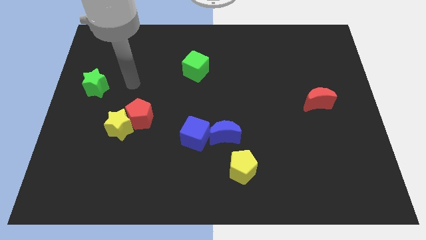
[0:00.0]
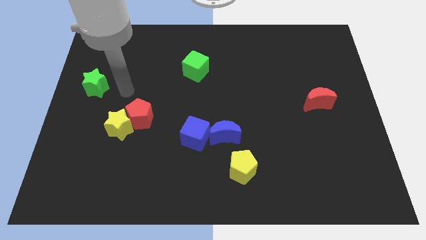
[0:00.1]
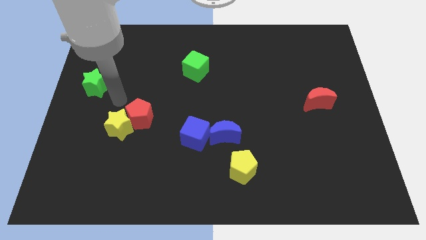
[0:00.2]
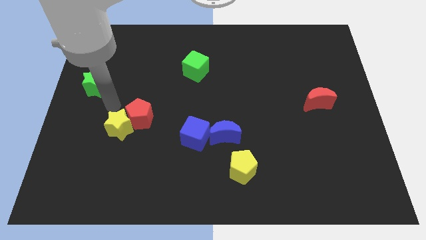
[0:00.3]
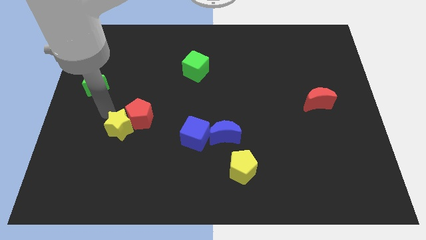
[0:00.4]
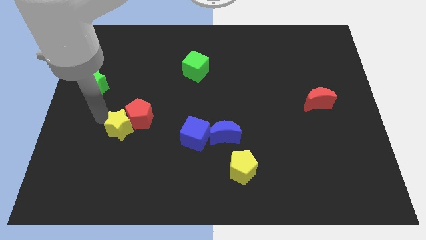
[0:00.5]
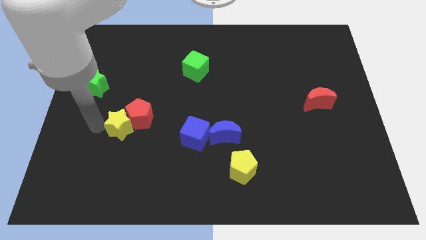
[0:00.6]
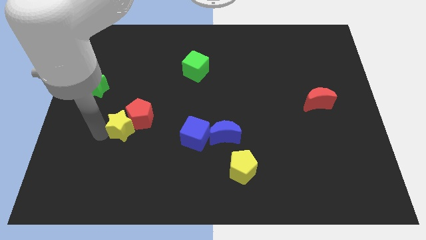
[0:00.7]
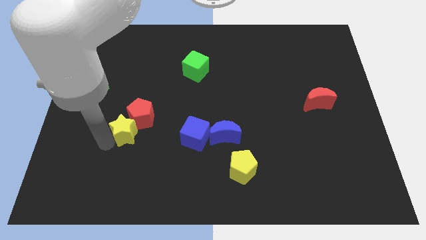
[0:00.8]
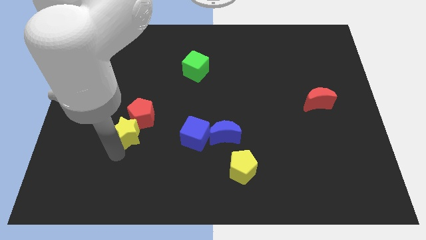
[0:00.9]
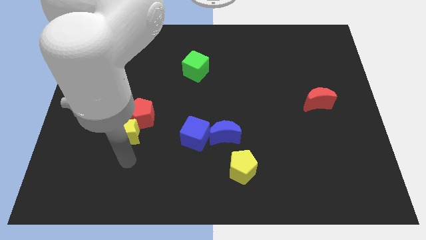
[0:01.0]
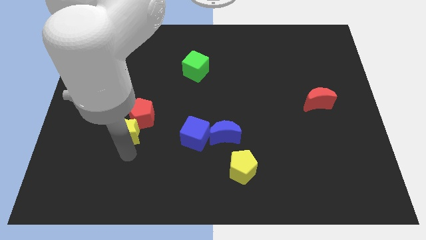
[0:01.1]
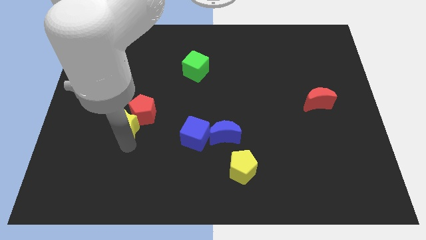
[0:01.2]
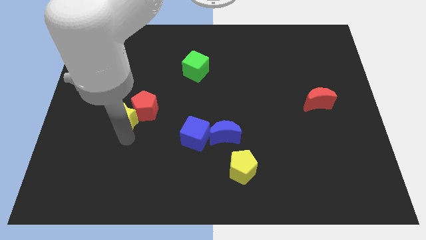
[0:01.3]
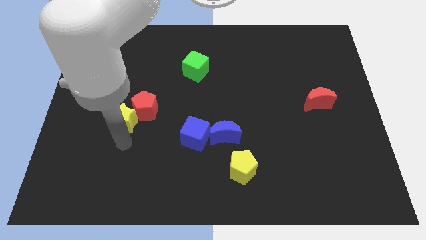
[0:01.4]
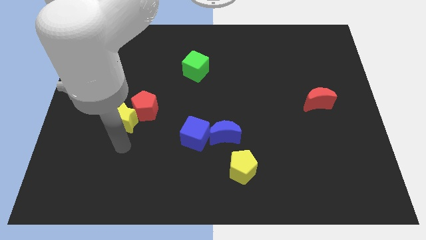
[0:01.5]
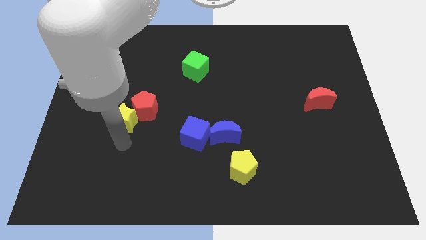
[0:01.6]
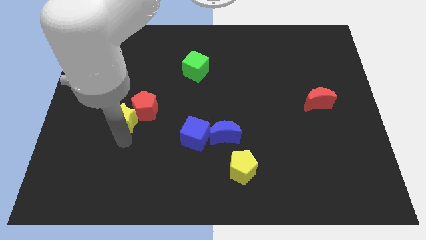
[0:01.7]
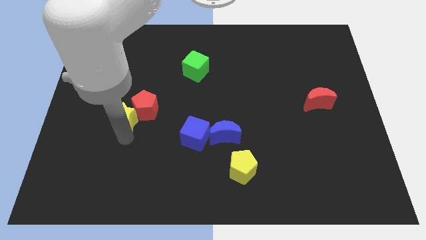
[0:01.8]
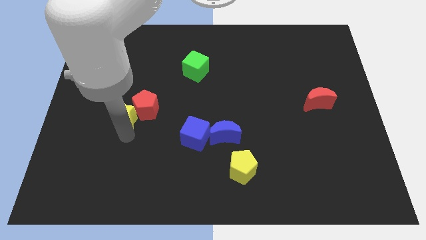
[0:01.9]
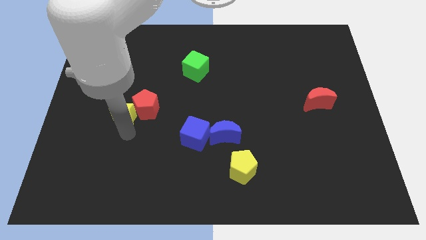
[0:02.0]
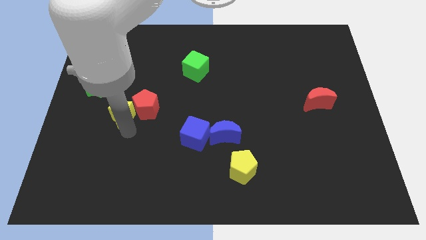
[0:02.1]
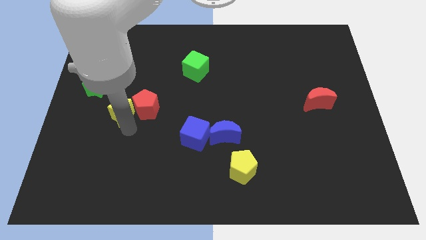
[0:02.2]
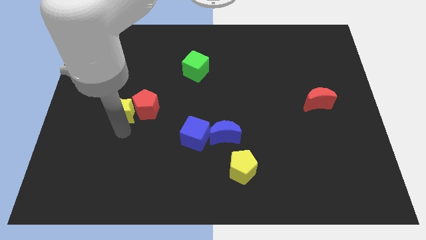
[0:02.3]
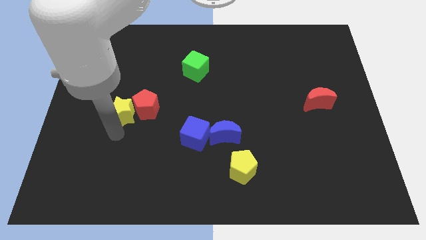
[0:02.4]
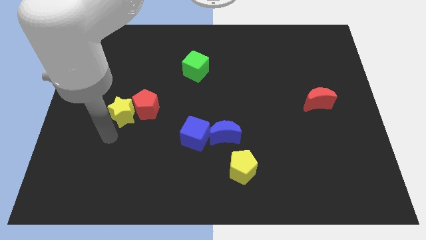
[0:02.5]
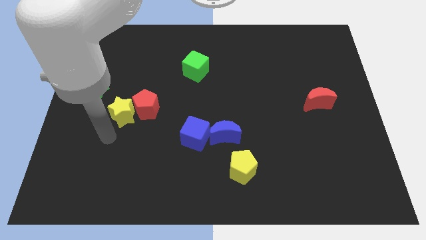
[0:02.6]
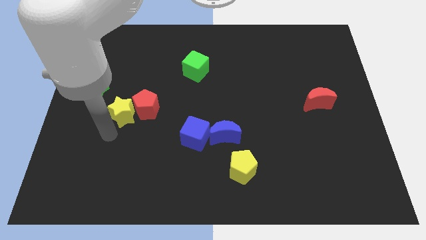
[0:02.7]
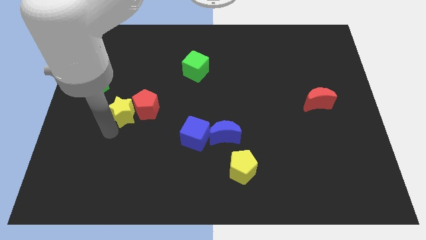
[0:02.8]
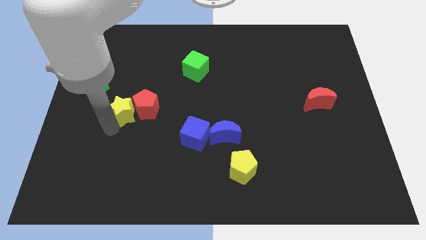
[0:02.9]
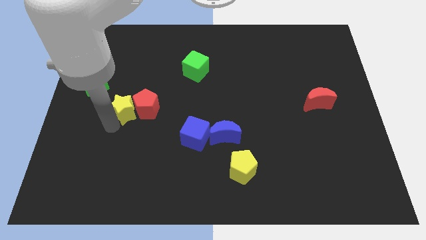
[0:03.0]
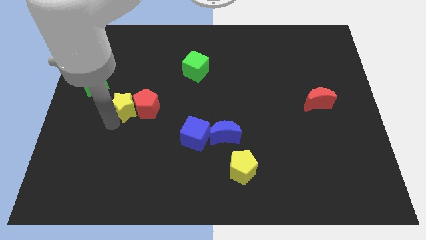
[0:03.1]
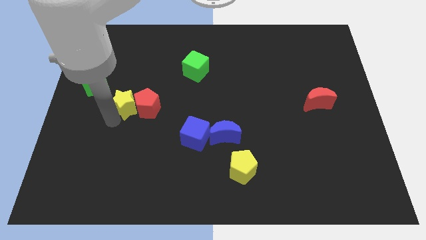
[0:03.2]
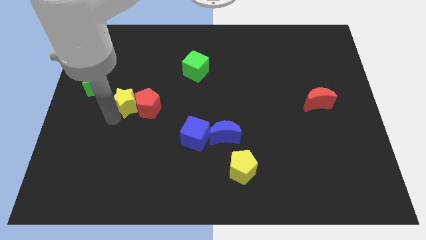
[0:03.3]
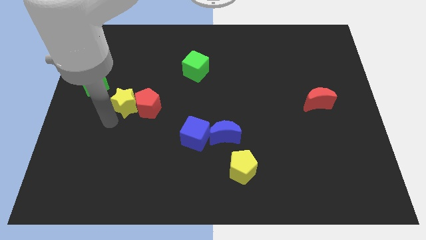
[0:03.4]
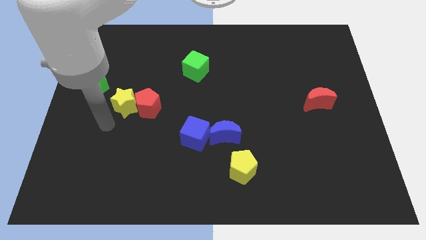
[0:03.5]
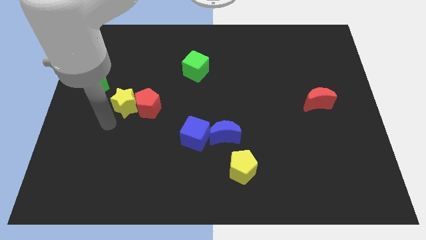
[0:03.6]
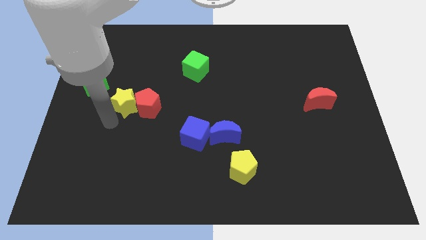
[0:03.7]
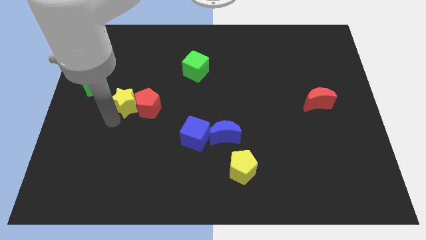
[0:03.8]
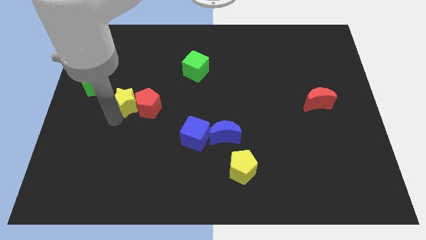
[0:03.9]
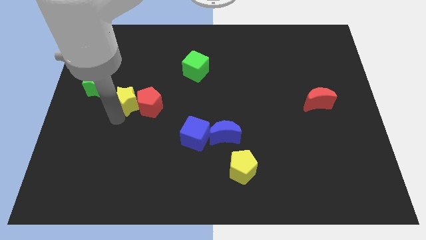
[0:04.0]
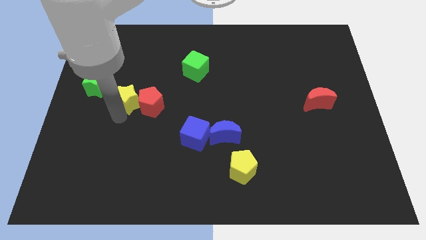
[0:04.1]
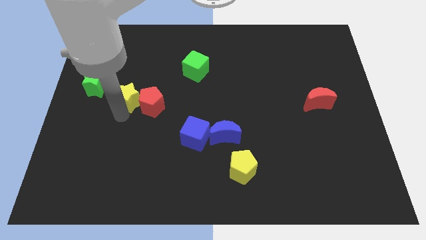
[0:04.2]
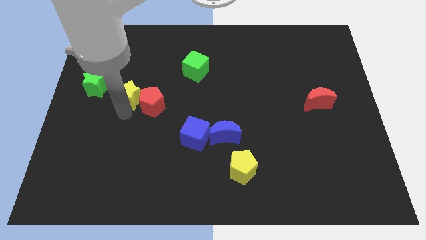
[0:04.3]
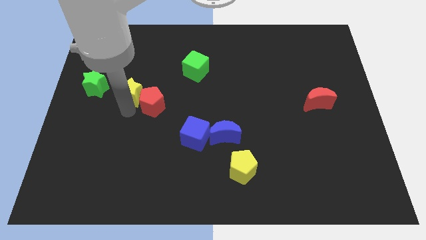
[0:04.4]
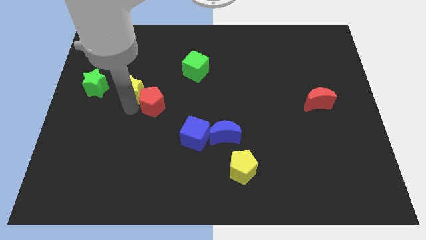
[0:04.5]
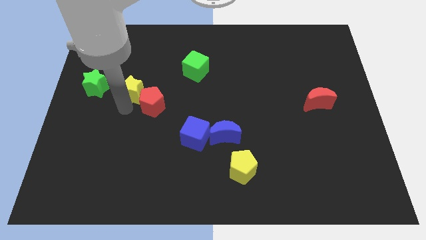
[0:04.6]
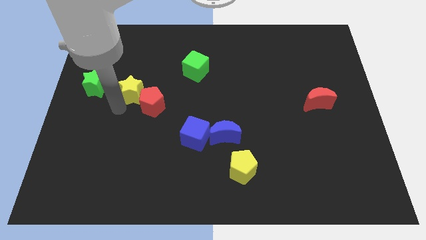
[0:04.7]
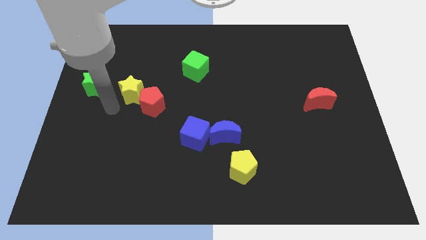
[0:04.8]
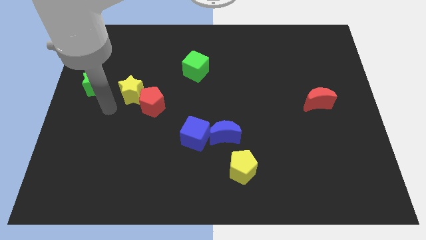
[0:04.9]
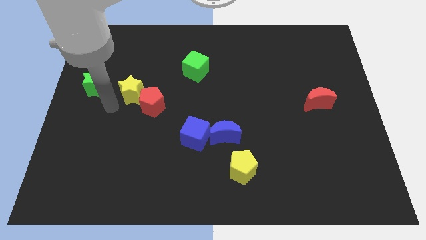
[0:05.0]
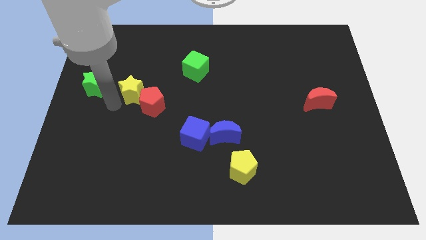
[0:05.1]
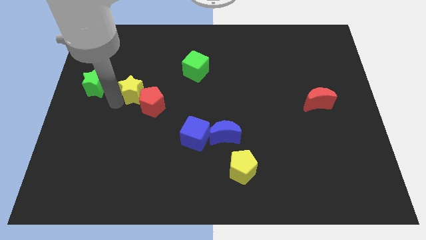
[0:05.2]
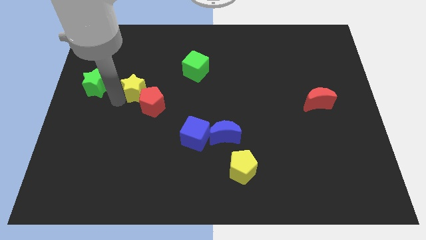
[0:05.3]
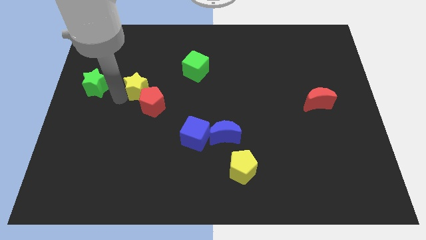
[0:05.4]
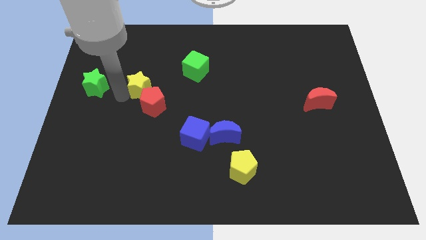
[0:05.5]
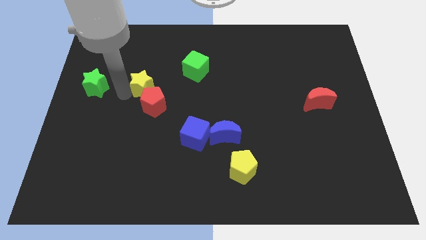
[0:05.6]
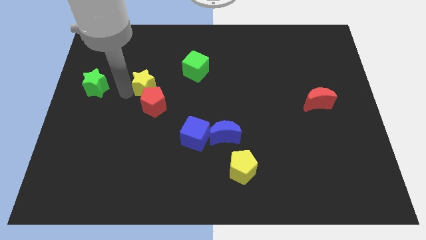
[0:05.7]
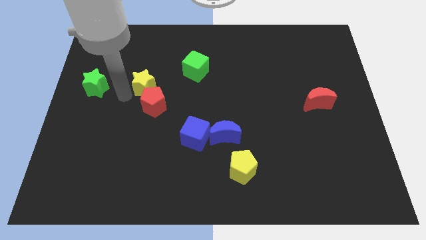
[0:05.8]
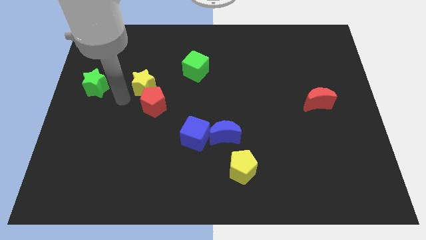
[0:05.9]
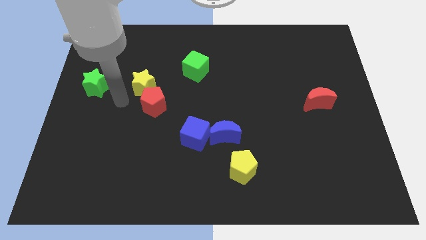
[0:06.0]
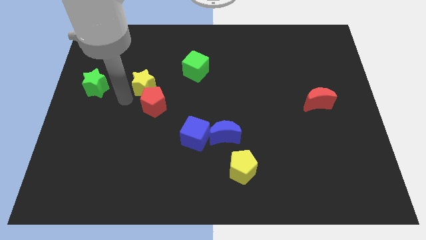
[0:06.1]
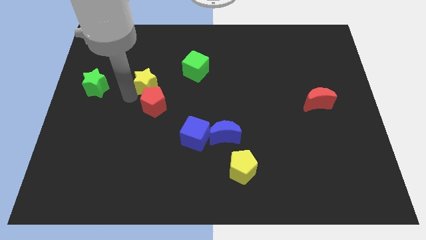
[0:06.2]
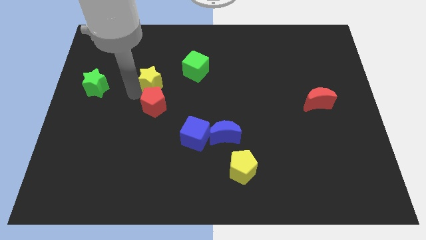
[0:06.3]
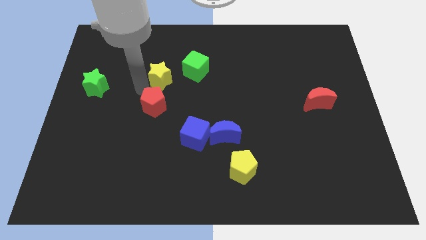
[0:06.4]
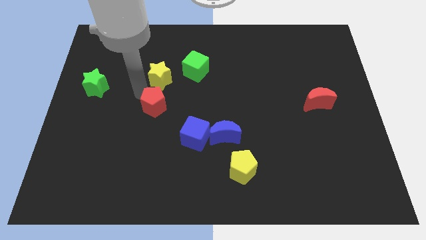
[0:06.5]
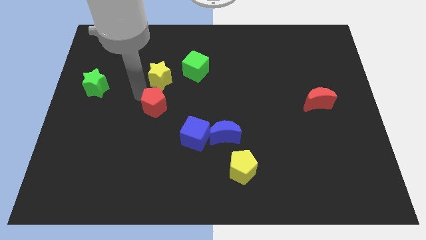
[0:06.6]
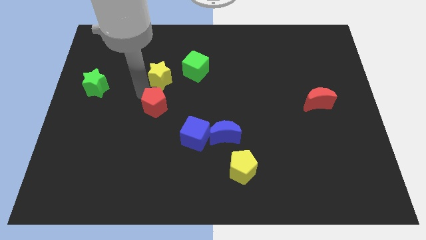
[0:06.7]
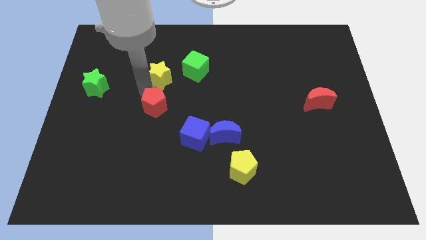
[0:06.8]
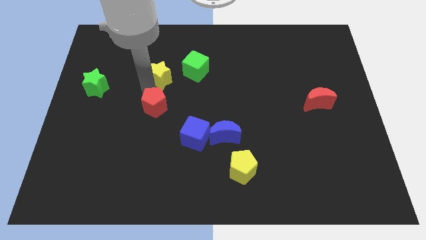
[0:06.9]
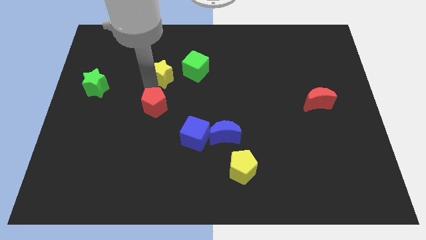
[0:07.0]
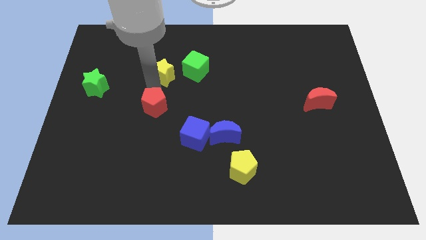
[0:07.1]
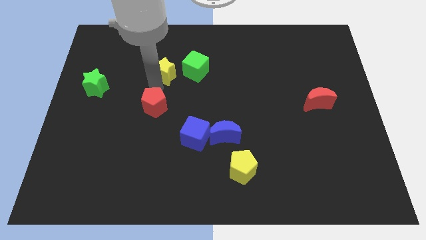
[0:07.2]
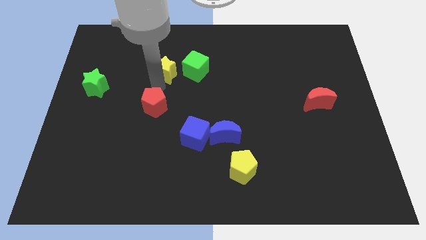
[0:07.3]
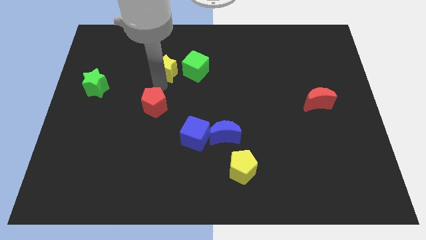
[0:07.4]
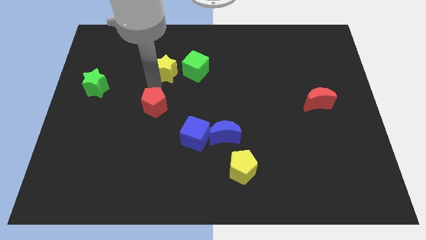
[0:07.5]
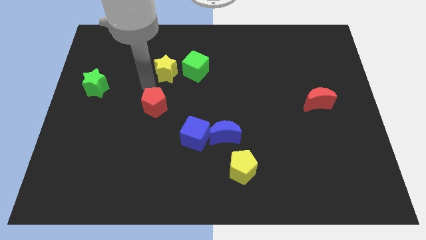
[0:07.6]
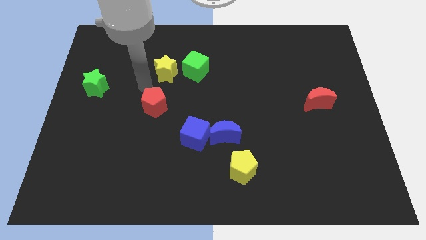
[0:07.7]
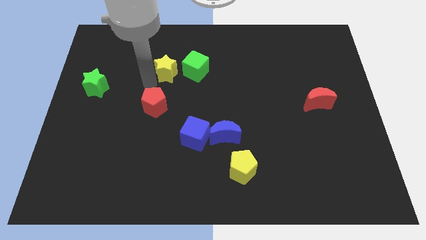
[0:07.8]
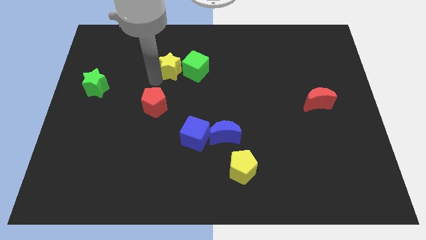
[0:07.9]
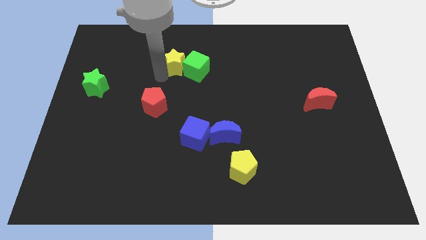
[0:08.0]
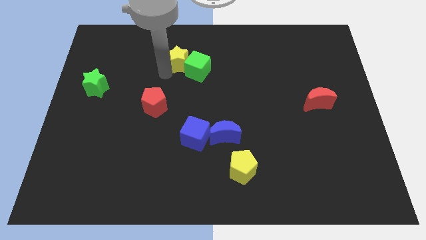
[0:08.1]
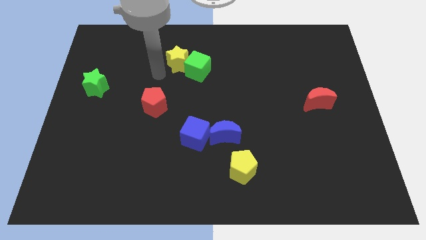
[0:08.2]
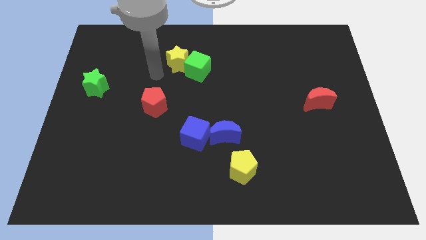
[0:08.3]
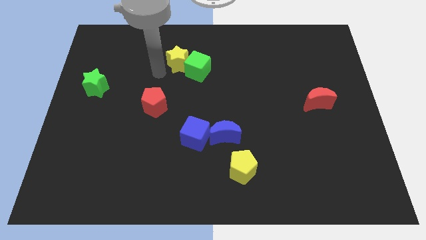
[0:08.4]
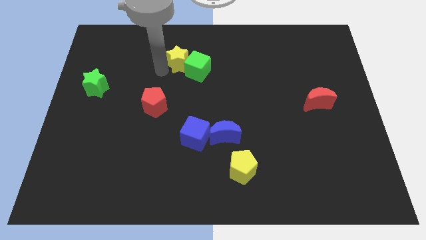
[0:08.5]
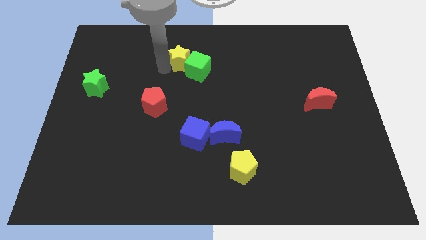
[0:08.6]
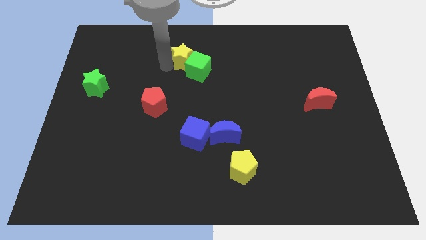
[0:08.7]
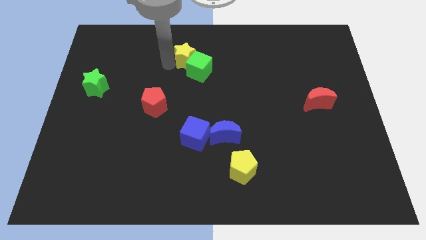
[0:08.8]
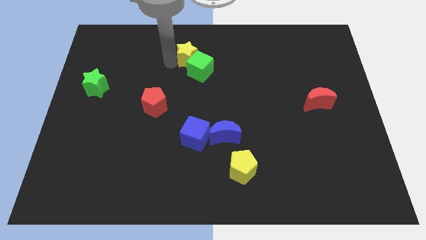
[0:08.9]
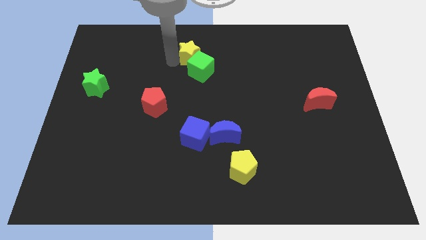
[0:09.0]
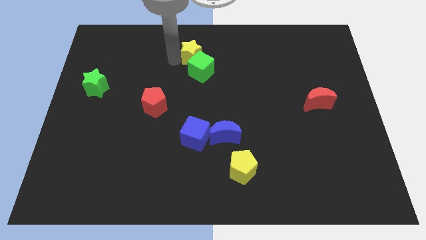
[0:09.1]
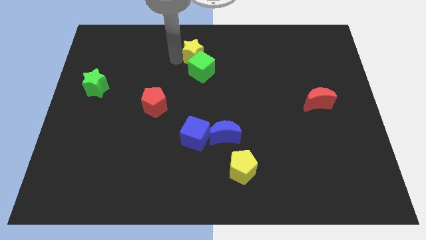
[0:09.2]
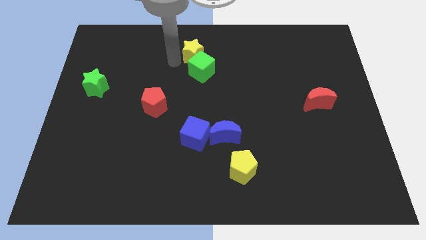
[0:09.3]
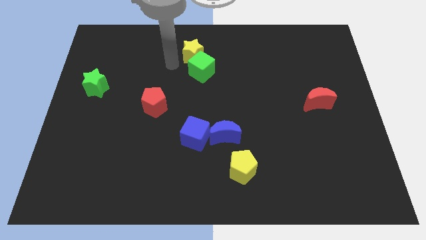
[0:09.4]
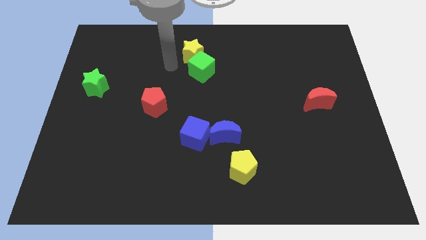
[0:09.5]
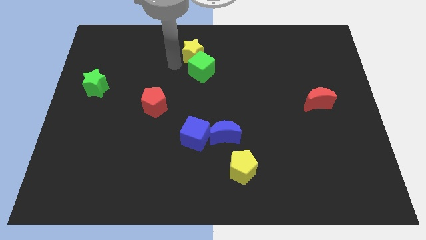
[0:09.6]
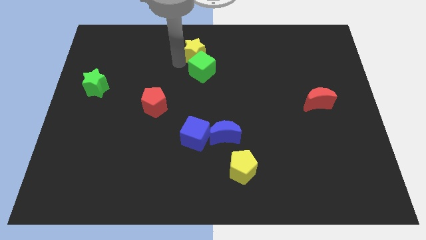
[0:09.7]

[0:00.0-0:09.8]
move the yellow star to the towards your base
